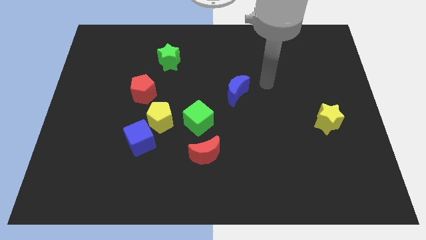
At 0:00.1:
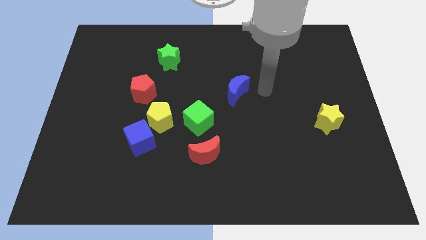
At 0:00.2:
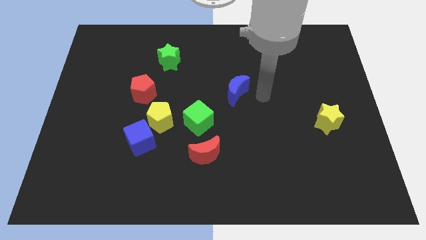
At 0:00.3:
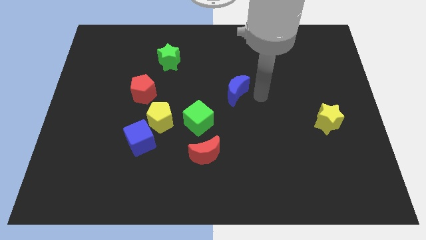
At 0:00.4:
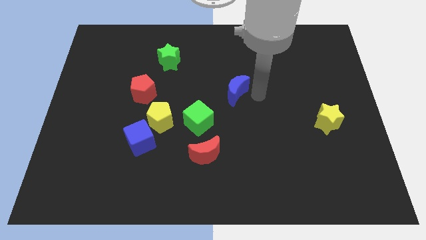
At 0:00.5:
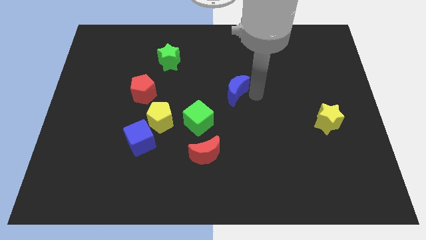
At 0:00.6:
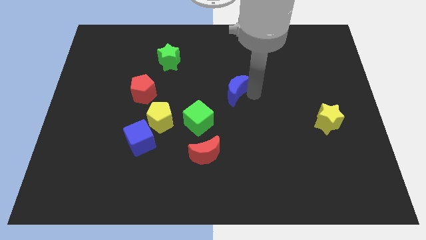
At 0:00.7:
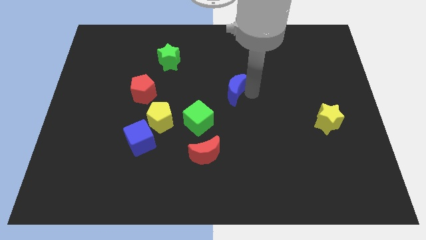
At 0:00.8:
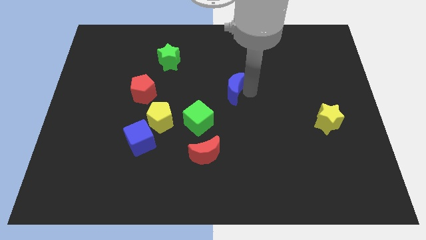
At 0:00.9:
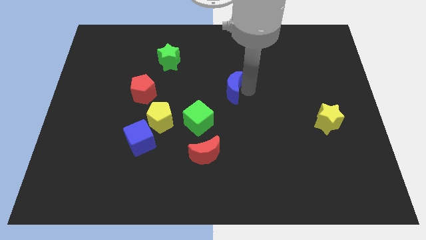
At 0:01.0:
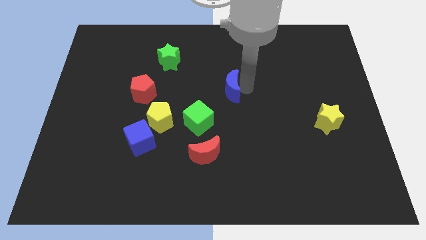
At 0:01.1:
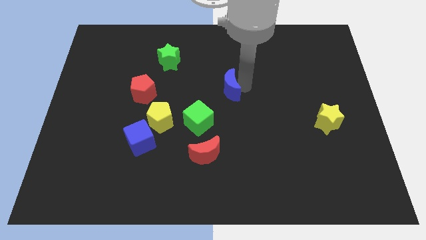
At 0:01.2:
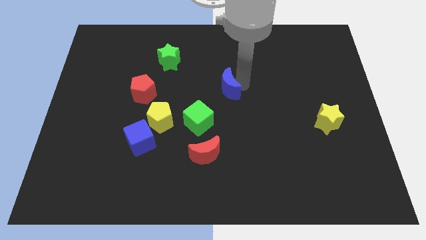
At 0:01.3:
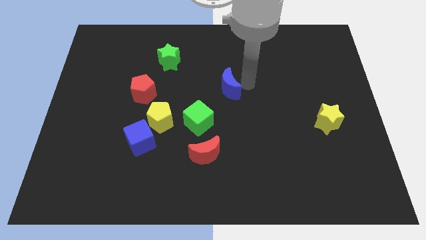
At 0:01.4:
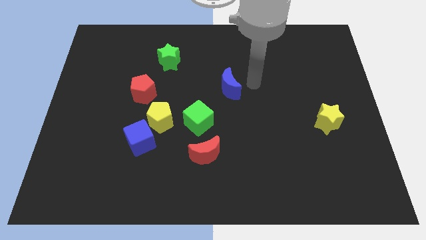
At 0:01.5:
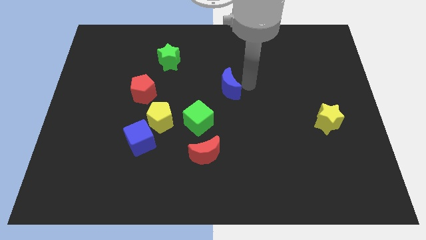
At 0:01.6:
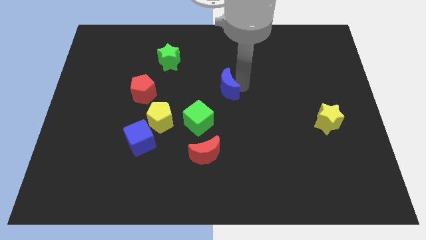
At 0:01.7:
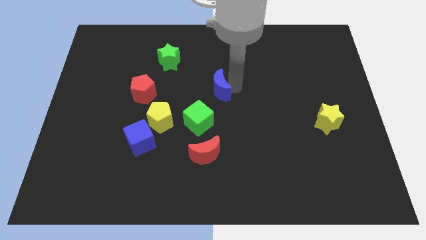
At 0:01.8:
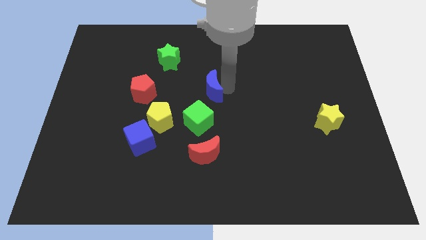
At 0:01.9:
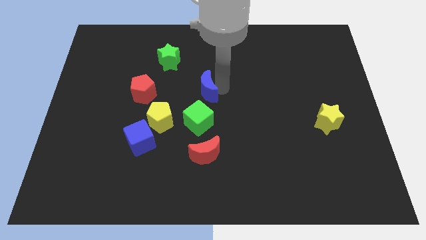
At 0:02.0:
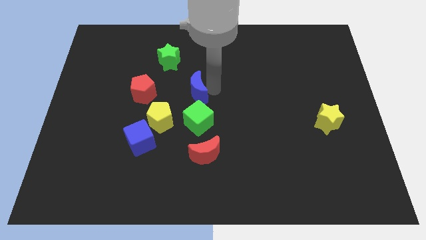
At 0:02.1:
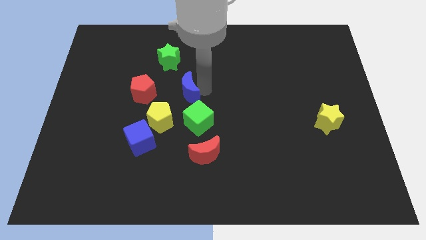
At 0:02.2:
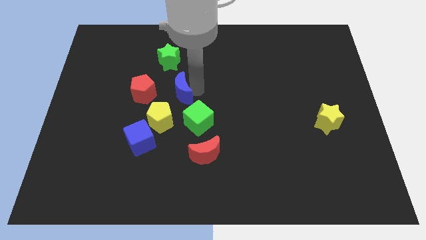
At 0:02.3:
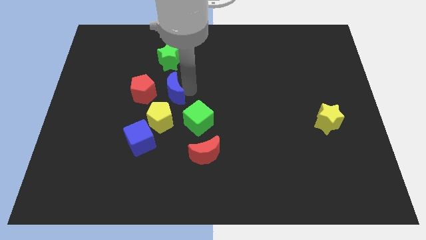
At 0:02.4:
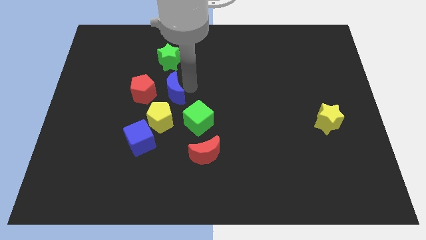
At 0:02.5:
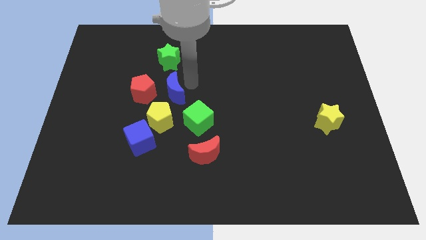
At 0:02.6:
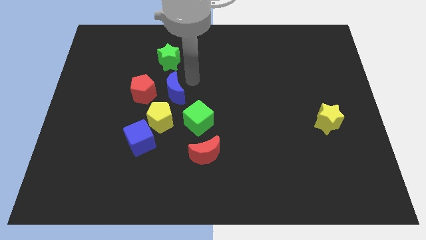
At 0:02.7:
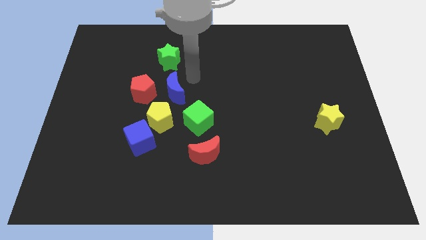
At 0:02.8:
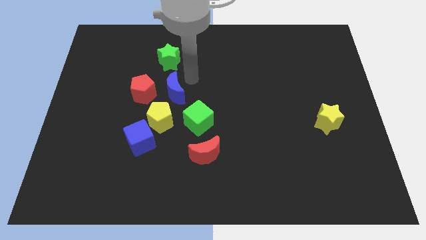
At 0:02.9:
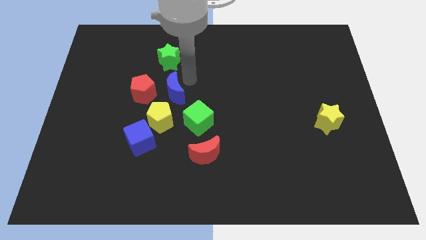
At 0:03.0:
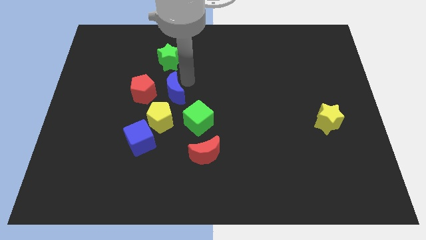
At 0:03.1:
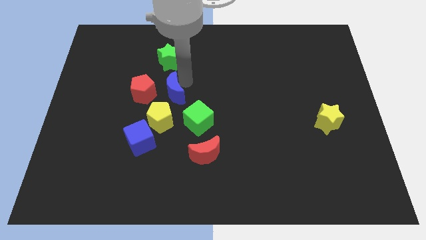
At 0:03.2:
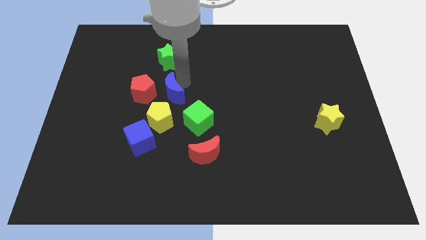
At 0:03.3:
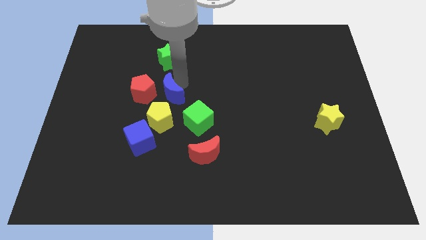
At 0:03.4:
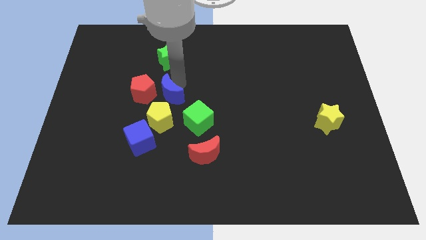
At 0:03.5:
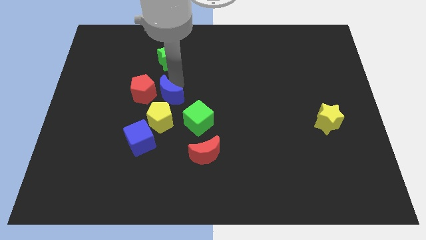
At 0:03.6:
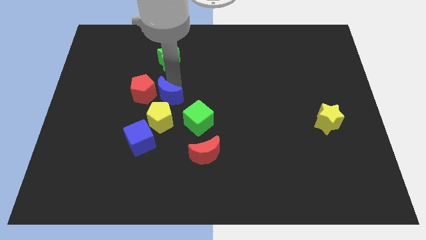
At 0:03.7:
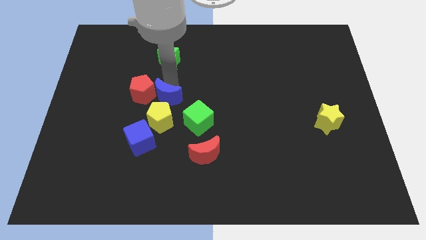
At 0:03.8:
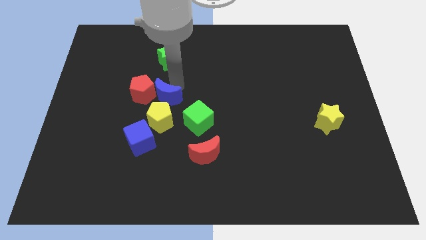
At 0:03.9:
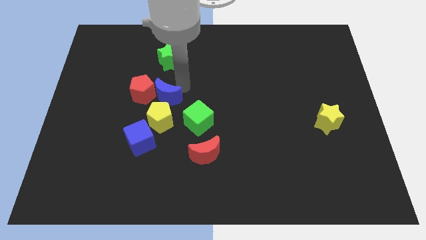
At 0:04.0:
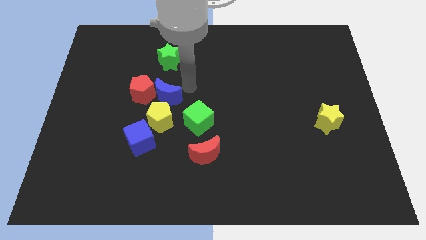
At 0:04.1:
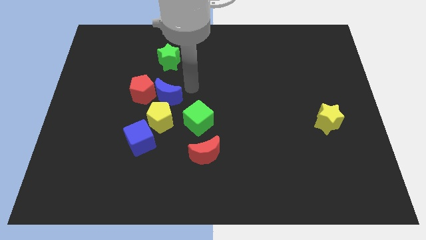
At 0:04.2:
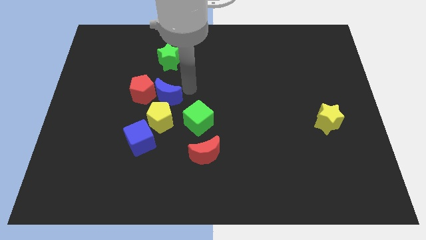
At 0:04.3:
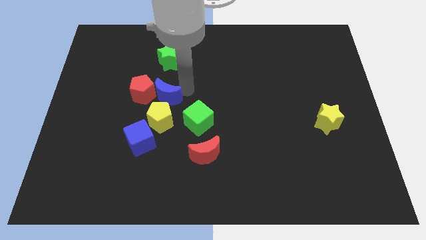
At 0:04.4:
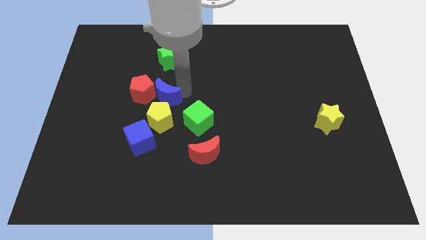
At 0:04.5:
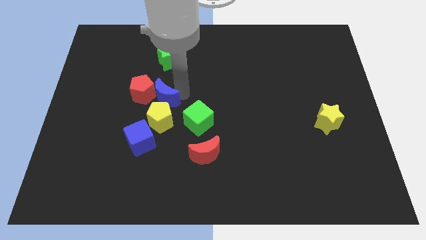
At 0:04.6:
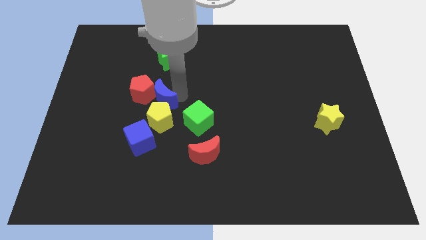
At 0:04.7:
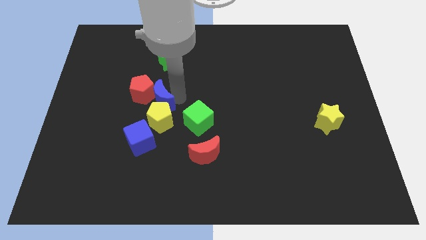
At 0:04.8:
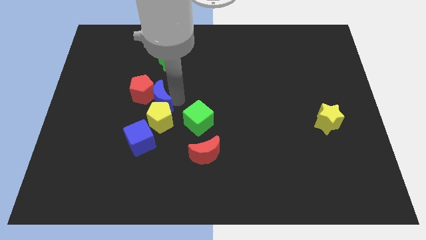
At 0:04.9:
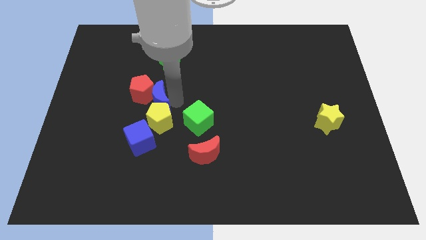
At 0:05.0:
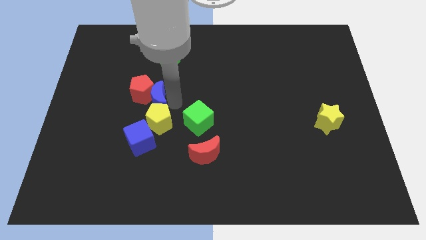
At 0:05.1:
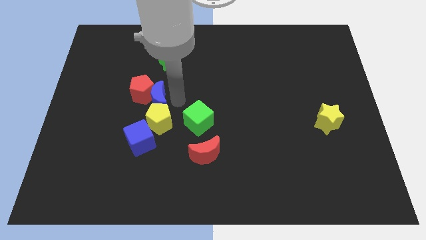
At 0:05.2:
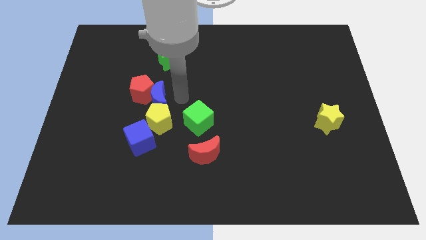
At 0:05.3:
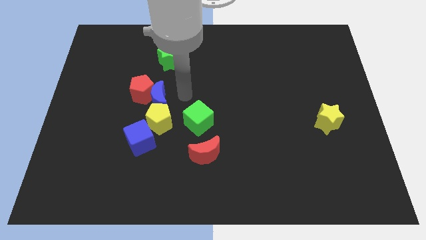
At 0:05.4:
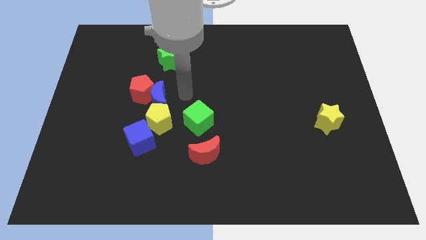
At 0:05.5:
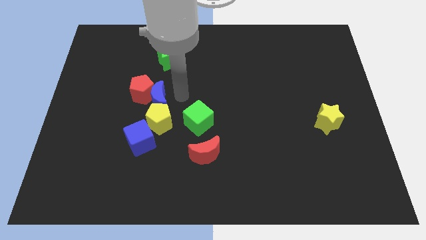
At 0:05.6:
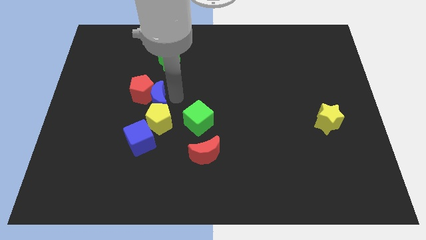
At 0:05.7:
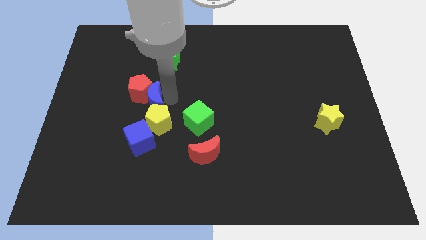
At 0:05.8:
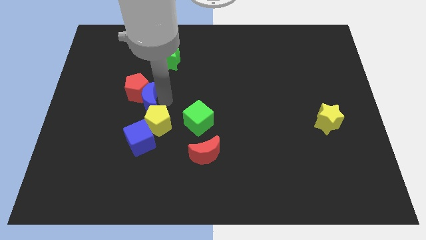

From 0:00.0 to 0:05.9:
move the blue moon left

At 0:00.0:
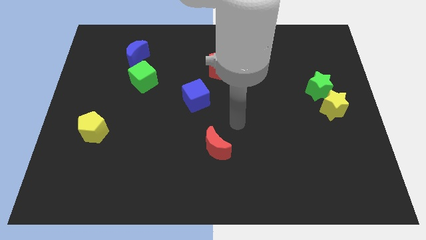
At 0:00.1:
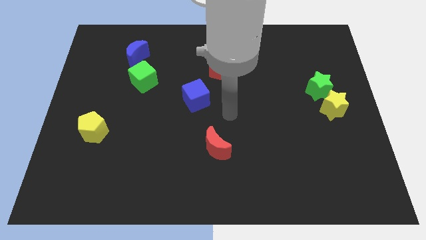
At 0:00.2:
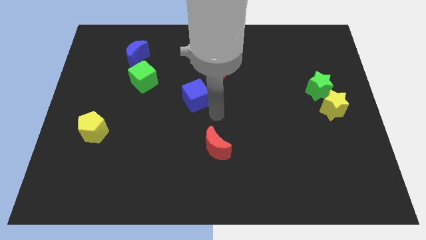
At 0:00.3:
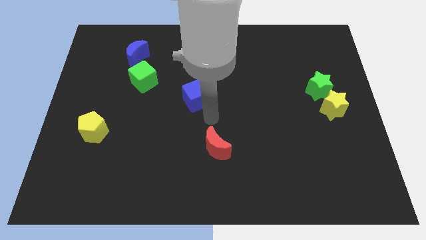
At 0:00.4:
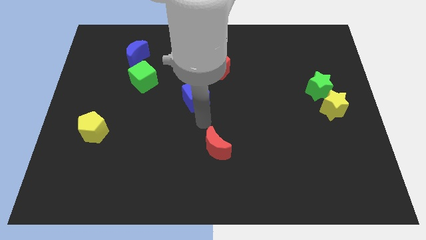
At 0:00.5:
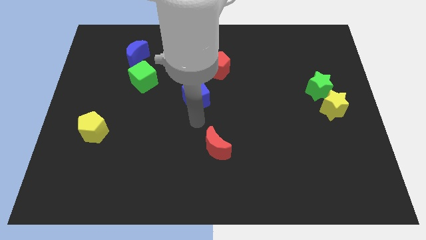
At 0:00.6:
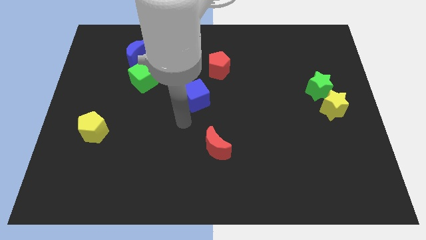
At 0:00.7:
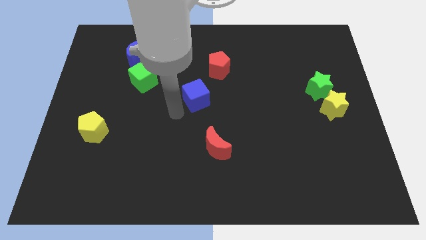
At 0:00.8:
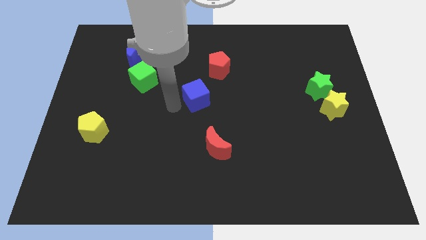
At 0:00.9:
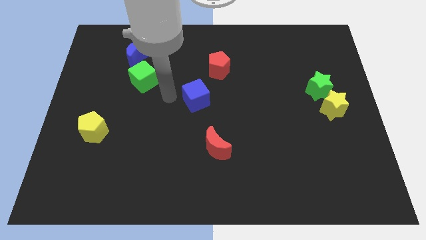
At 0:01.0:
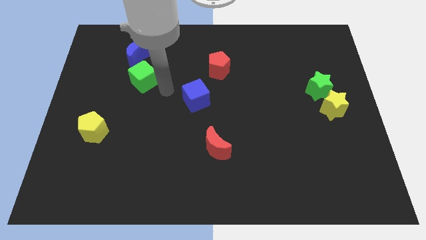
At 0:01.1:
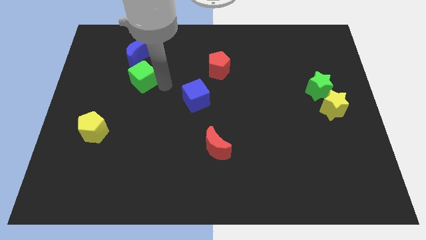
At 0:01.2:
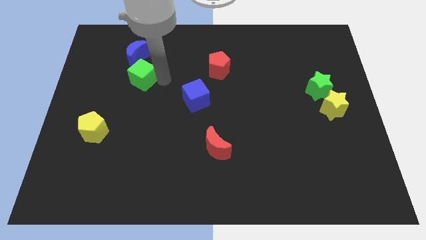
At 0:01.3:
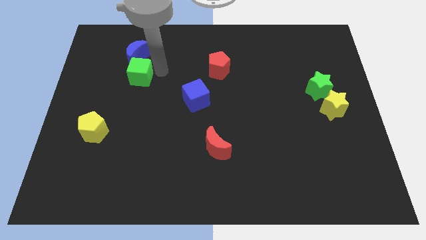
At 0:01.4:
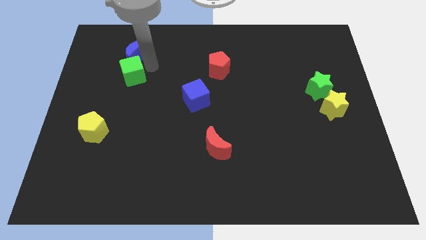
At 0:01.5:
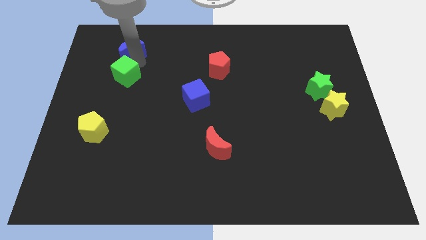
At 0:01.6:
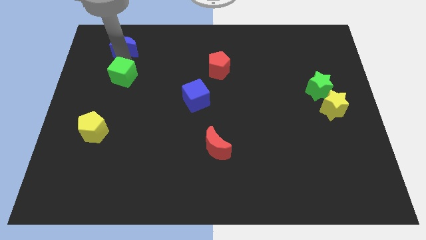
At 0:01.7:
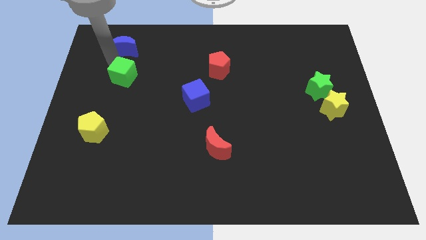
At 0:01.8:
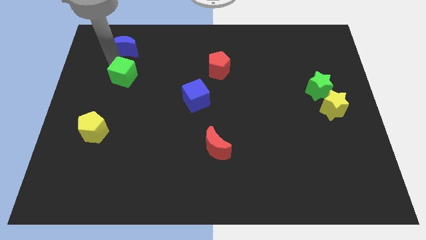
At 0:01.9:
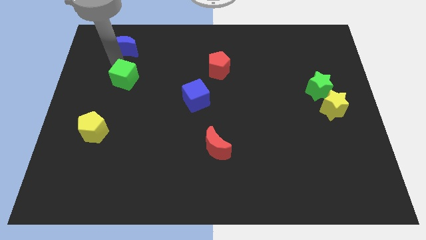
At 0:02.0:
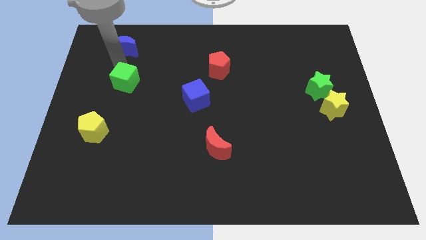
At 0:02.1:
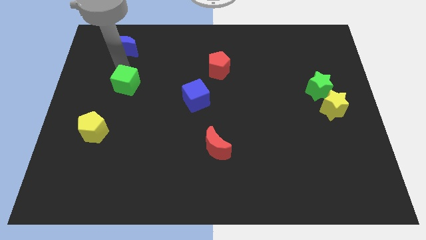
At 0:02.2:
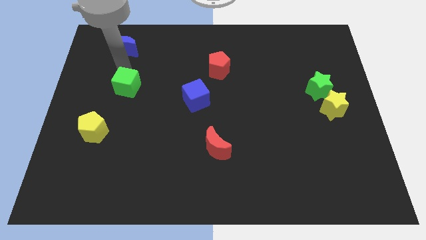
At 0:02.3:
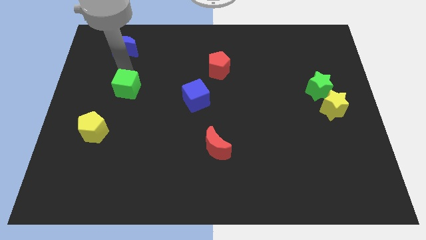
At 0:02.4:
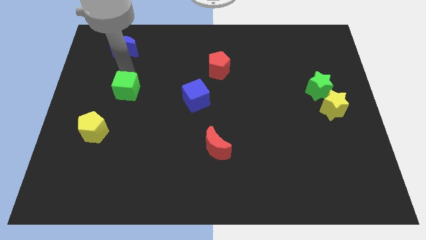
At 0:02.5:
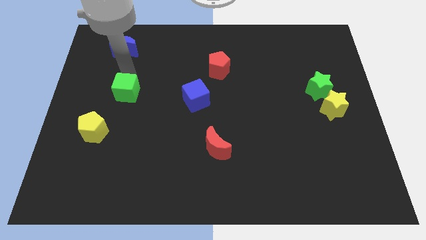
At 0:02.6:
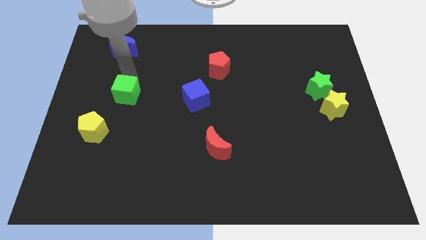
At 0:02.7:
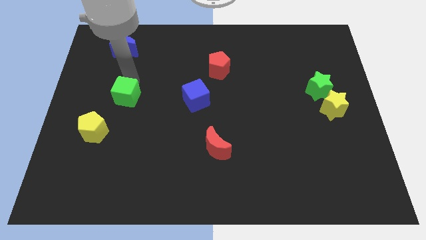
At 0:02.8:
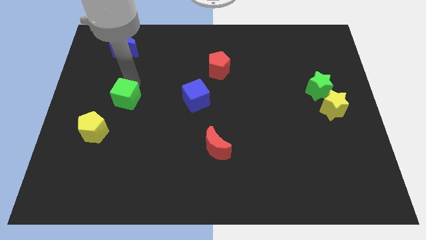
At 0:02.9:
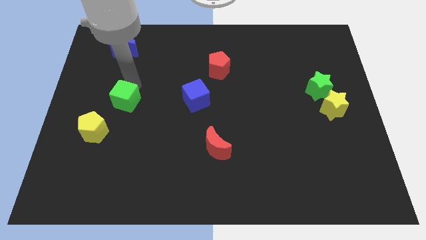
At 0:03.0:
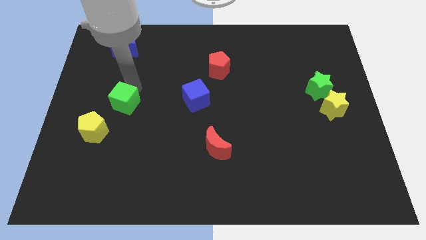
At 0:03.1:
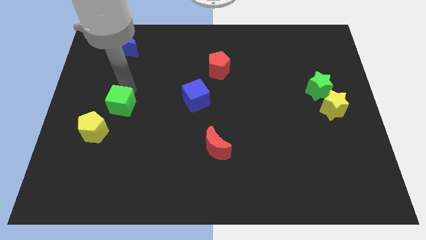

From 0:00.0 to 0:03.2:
slightly move the green cube down
